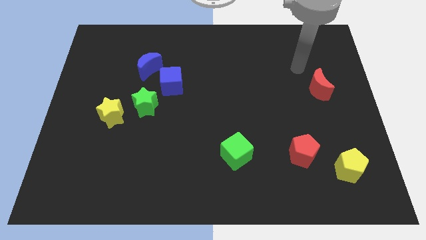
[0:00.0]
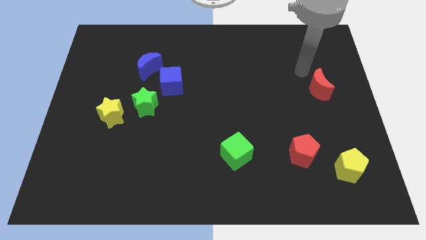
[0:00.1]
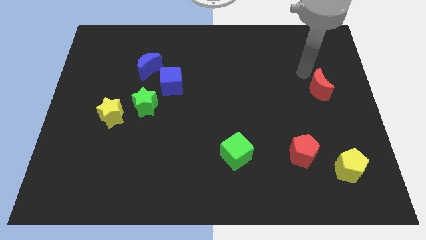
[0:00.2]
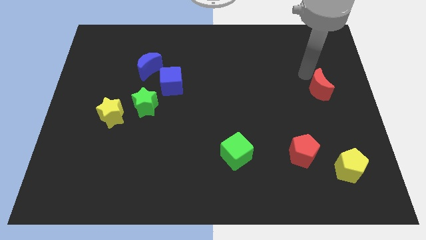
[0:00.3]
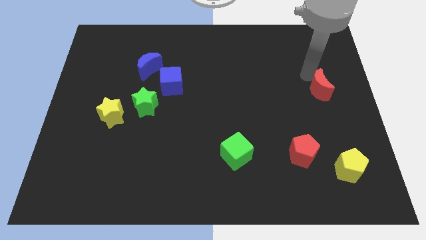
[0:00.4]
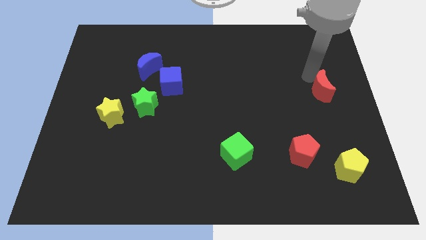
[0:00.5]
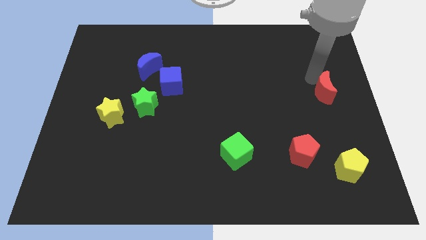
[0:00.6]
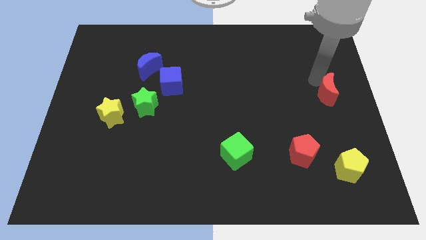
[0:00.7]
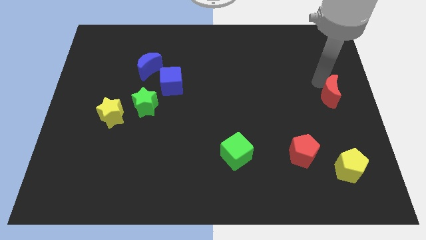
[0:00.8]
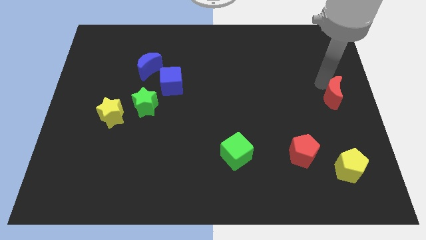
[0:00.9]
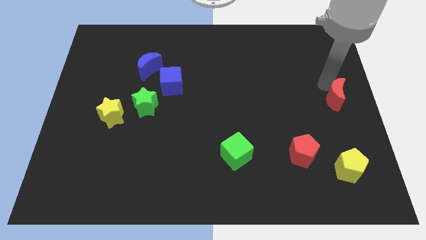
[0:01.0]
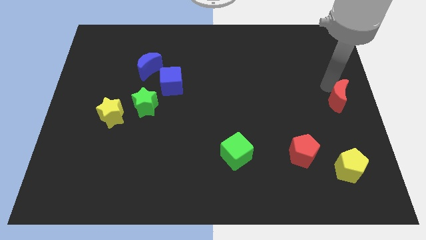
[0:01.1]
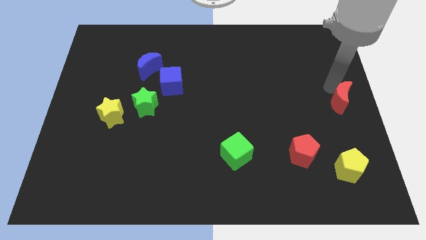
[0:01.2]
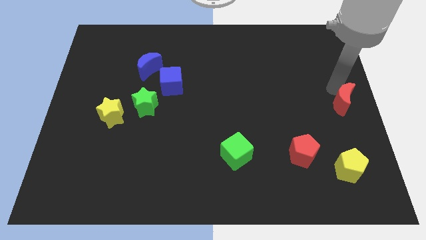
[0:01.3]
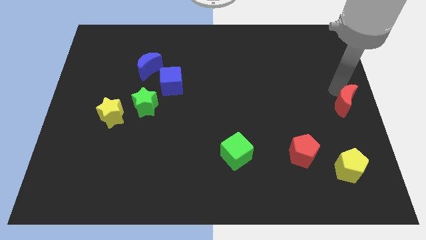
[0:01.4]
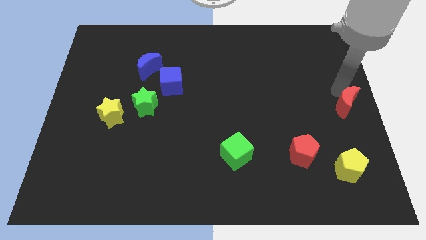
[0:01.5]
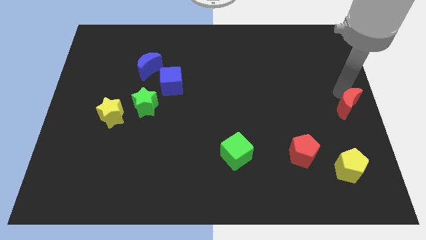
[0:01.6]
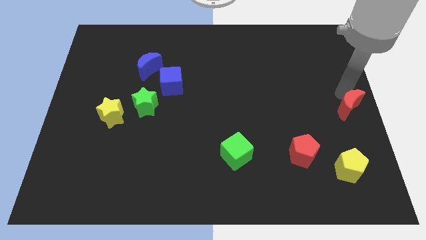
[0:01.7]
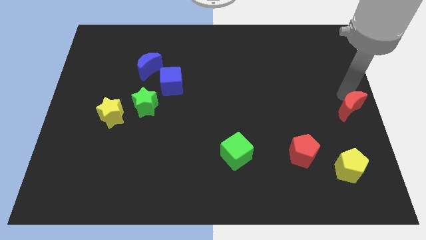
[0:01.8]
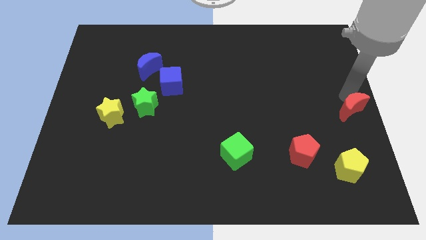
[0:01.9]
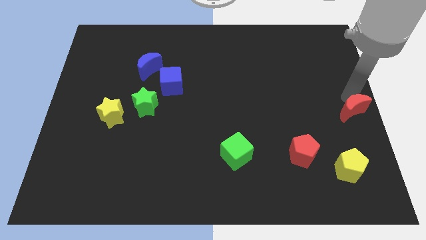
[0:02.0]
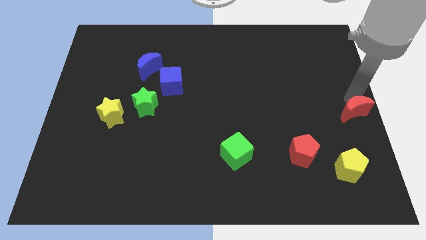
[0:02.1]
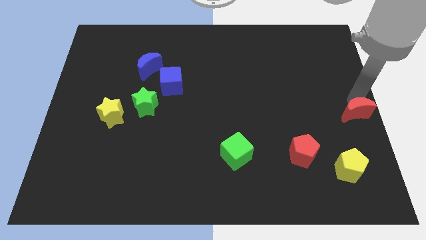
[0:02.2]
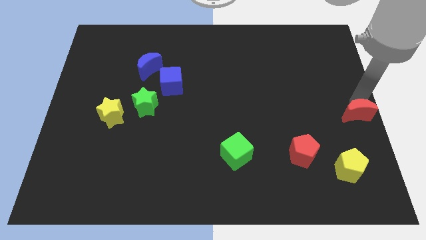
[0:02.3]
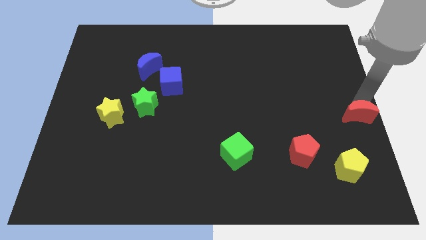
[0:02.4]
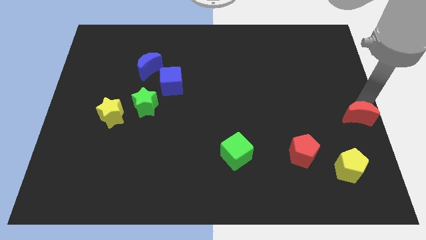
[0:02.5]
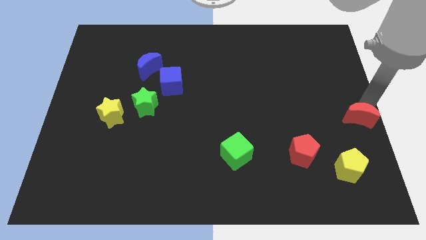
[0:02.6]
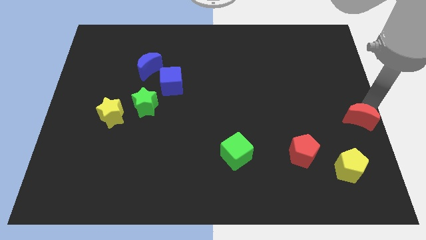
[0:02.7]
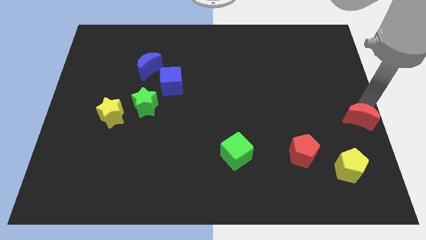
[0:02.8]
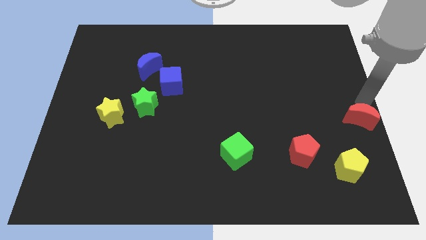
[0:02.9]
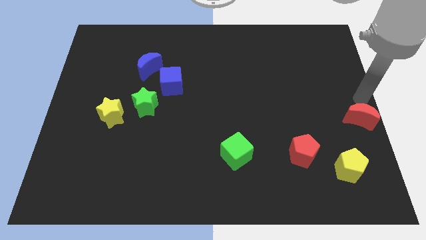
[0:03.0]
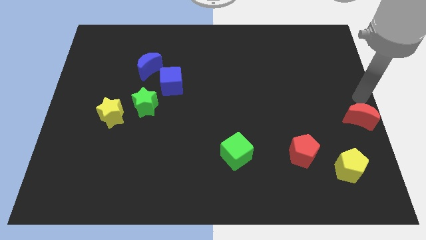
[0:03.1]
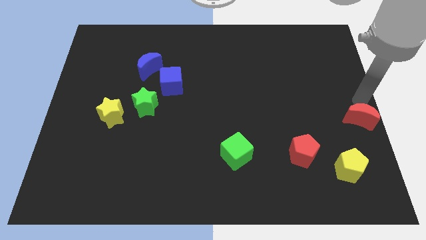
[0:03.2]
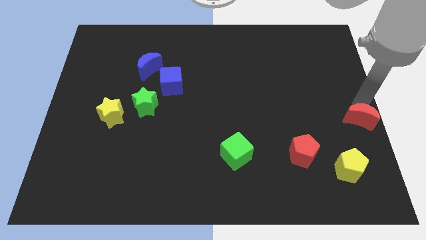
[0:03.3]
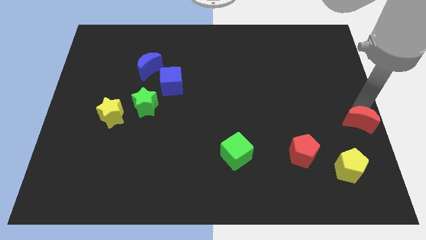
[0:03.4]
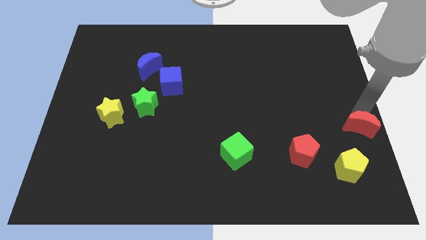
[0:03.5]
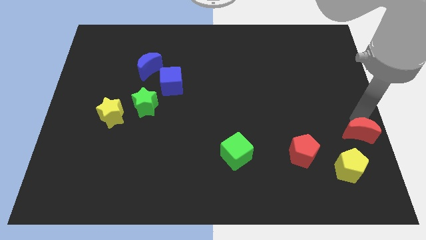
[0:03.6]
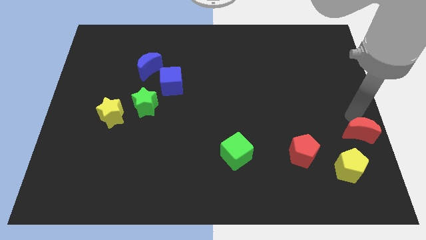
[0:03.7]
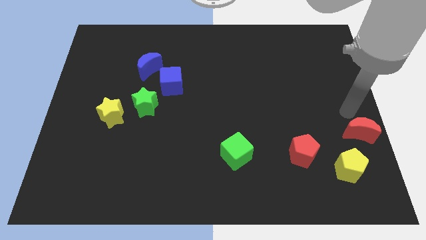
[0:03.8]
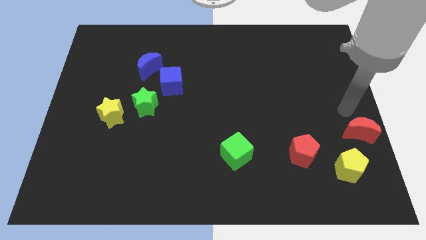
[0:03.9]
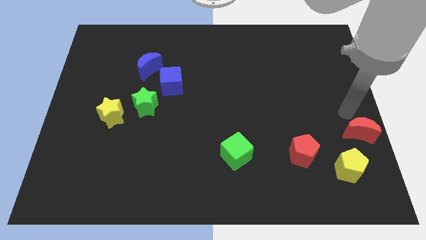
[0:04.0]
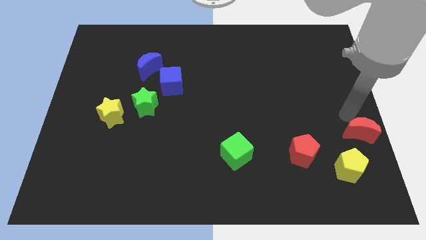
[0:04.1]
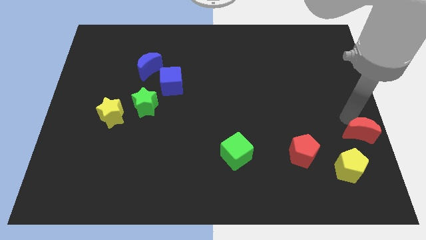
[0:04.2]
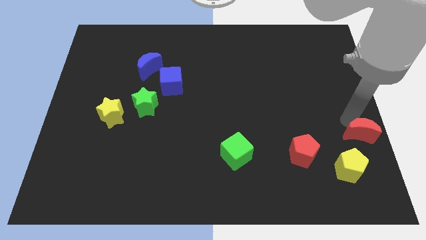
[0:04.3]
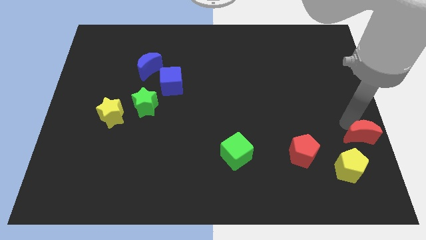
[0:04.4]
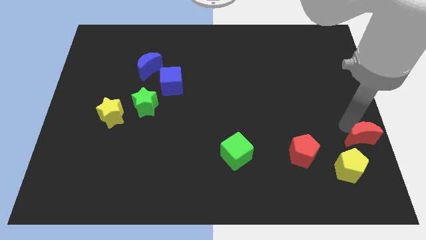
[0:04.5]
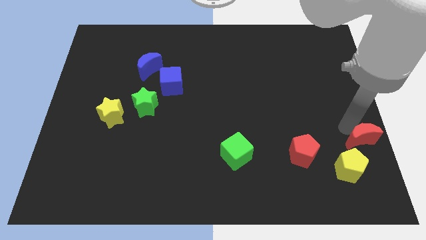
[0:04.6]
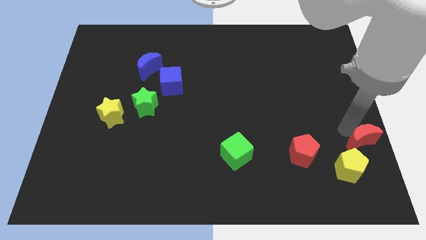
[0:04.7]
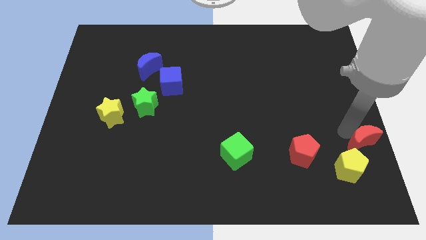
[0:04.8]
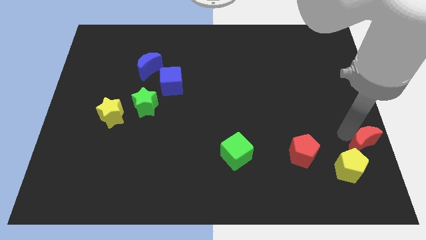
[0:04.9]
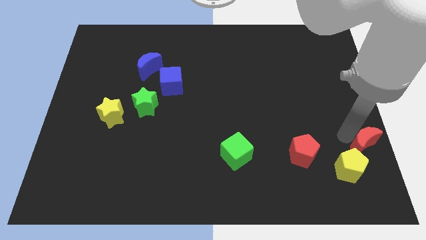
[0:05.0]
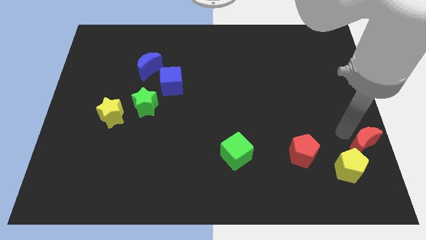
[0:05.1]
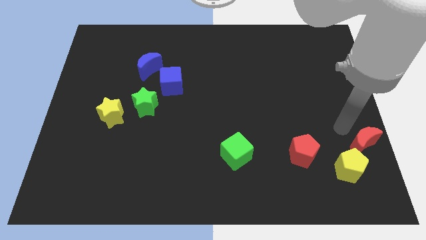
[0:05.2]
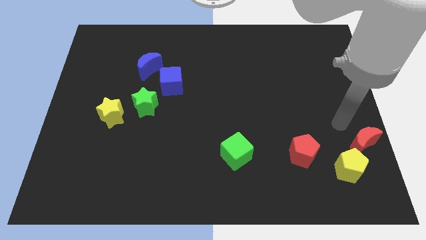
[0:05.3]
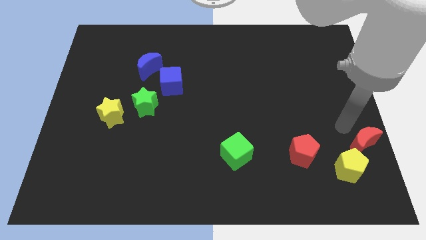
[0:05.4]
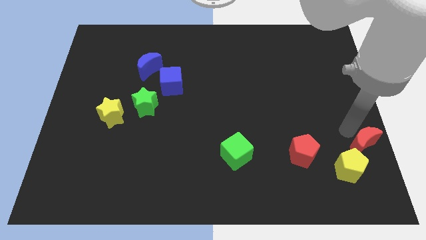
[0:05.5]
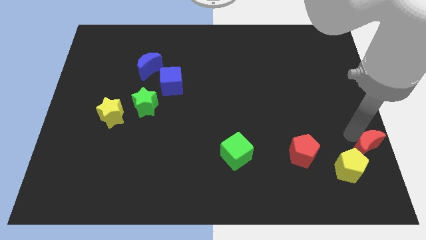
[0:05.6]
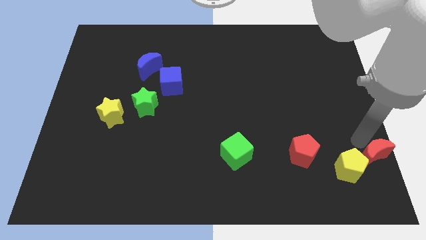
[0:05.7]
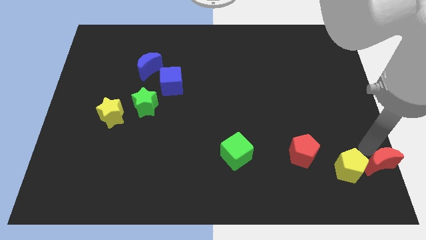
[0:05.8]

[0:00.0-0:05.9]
put the red moon to the bottom right
